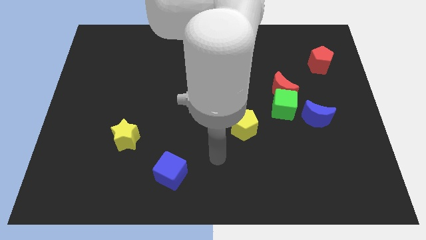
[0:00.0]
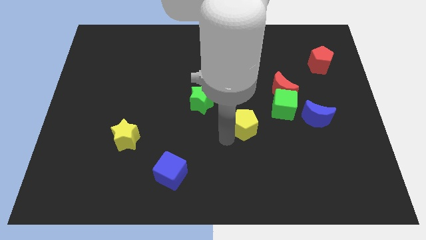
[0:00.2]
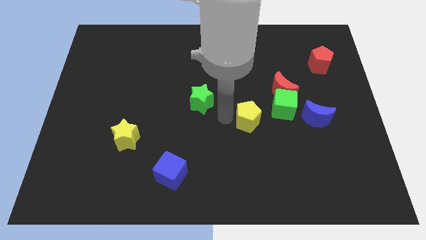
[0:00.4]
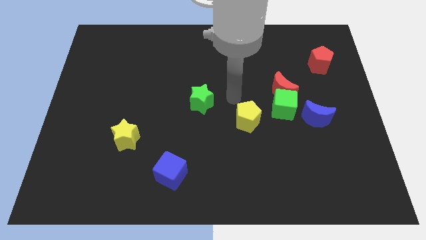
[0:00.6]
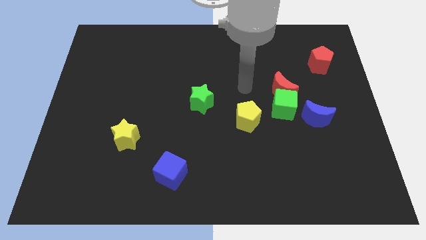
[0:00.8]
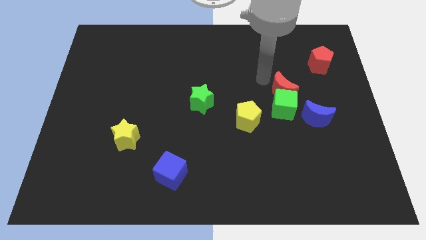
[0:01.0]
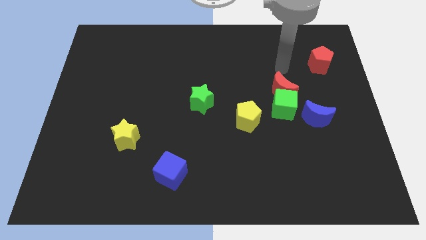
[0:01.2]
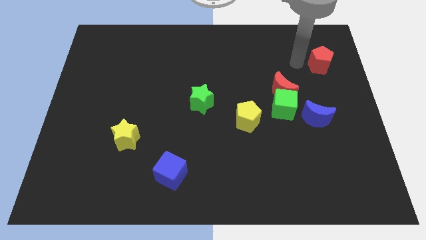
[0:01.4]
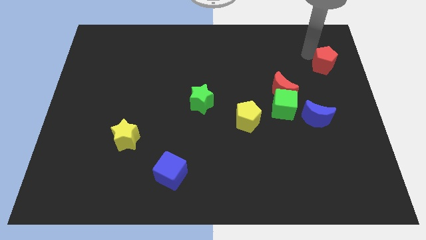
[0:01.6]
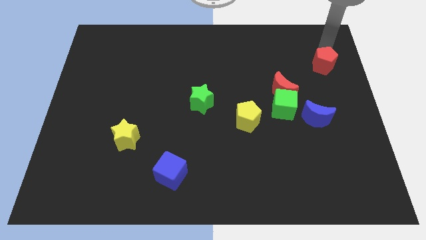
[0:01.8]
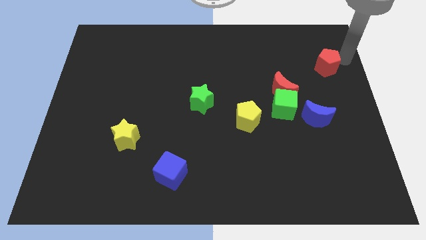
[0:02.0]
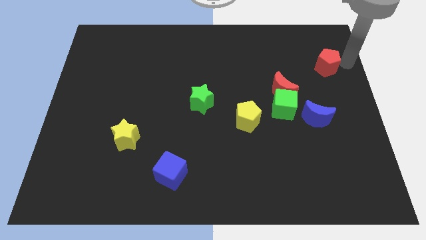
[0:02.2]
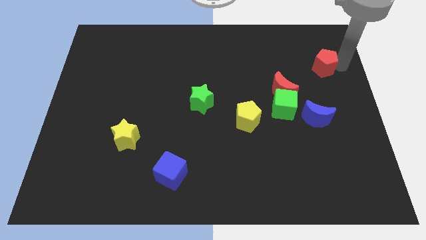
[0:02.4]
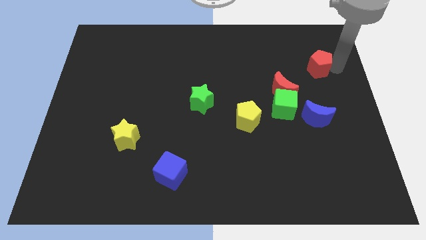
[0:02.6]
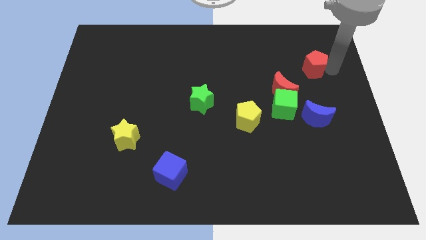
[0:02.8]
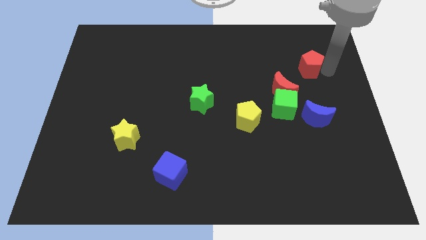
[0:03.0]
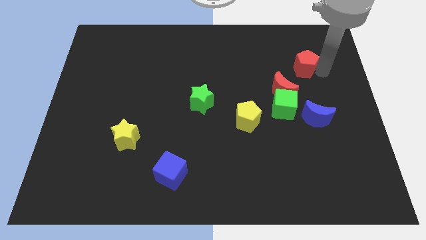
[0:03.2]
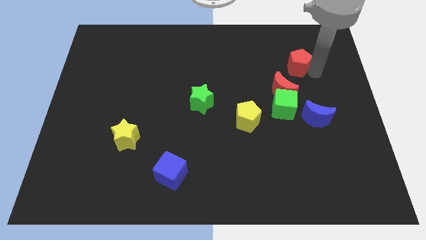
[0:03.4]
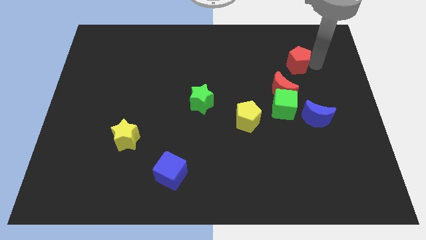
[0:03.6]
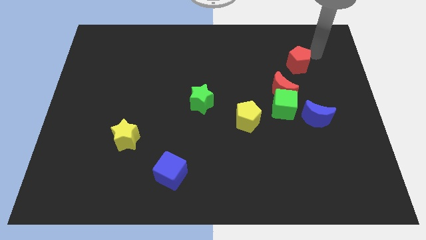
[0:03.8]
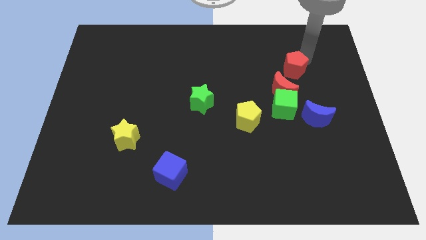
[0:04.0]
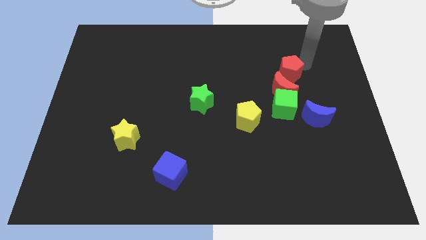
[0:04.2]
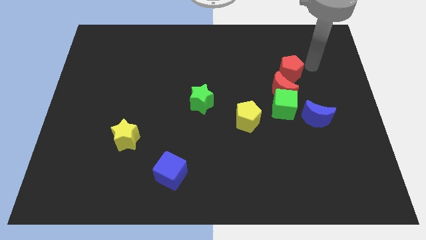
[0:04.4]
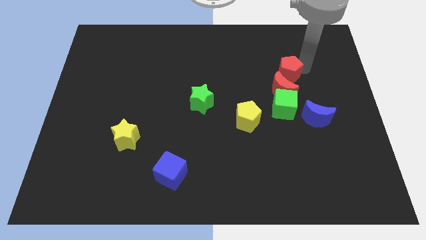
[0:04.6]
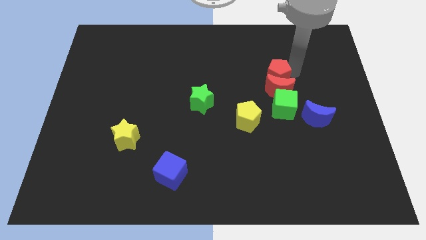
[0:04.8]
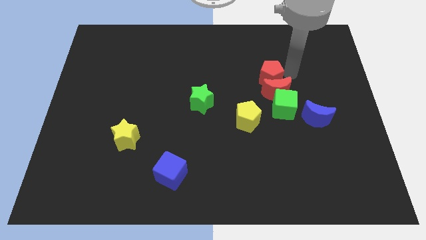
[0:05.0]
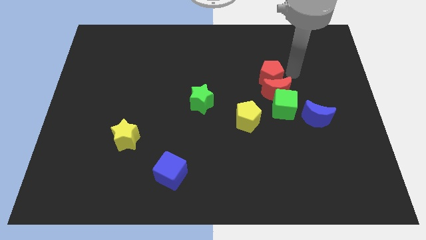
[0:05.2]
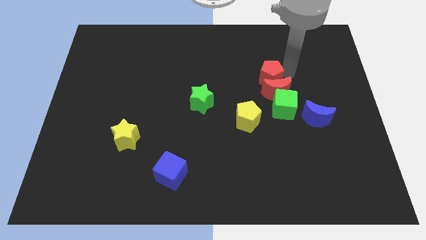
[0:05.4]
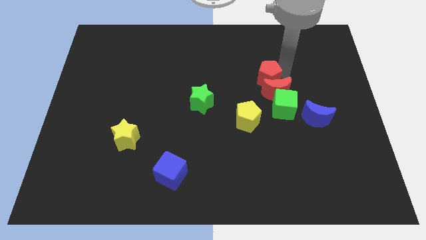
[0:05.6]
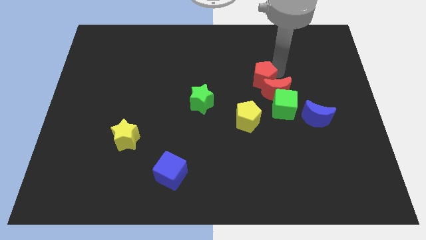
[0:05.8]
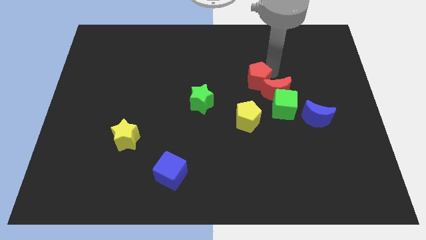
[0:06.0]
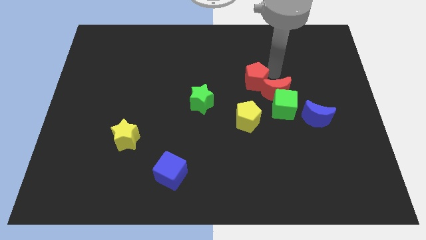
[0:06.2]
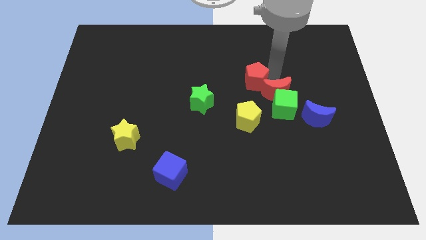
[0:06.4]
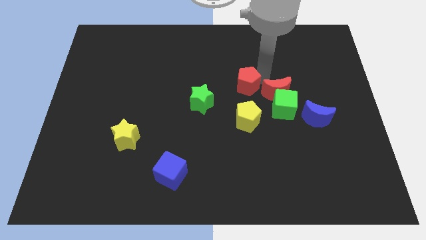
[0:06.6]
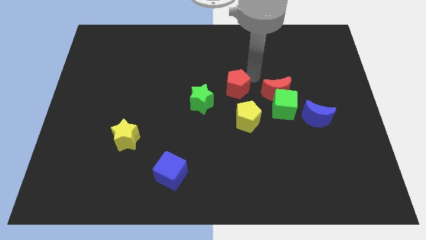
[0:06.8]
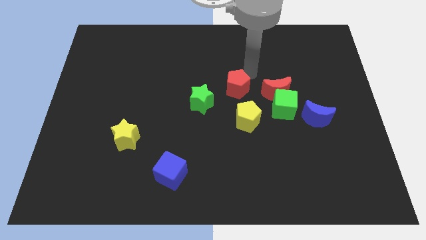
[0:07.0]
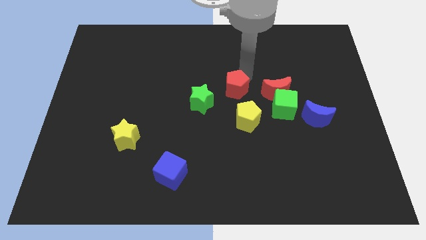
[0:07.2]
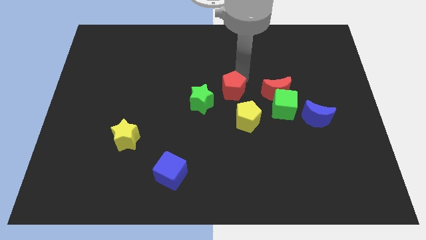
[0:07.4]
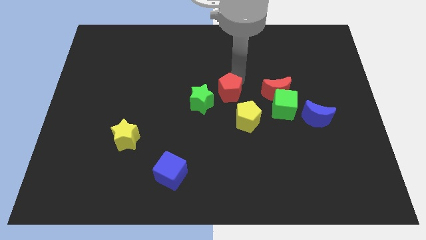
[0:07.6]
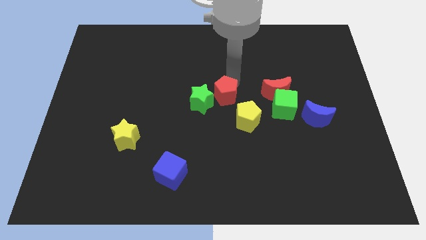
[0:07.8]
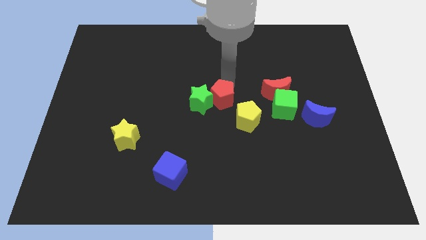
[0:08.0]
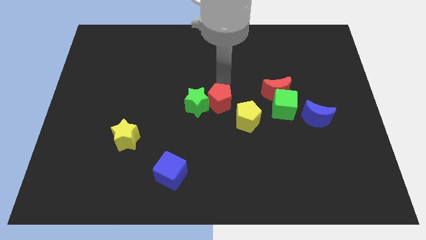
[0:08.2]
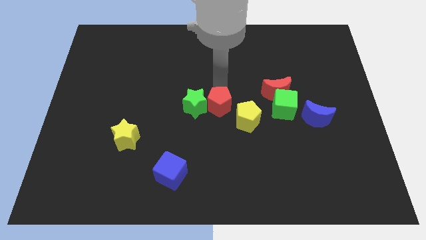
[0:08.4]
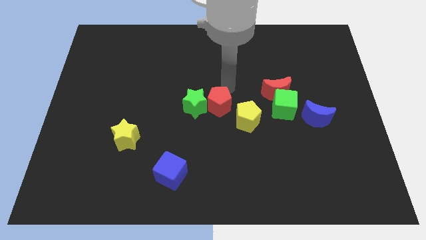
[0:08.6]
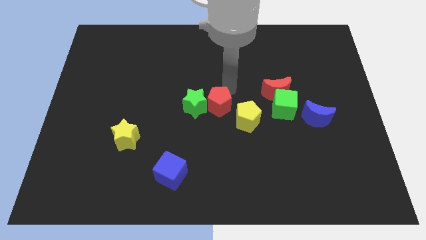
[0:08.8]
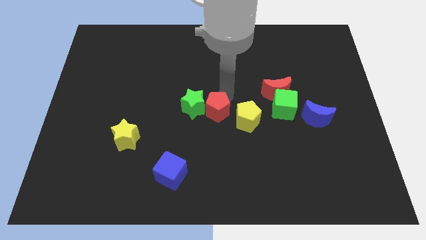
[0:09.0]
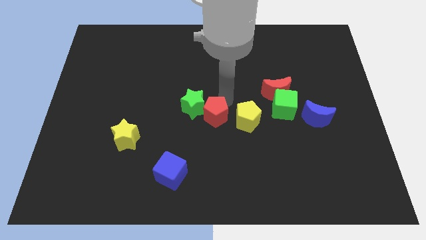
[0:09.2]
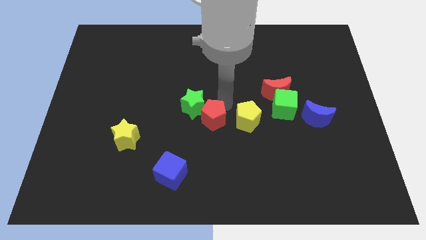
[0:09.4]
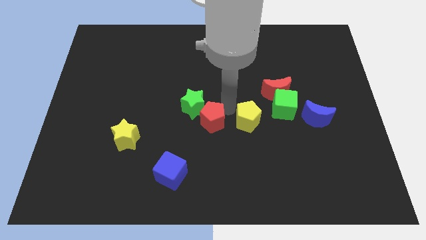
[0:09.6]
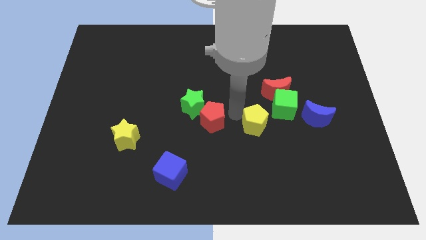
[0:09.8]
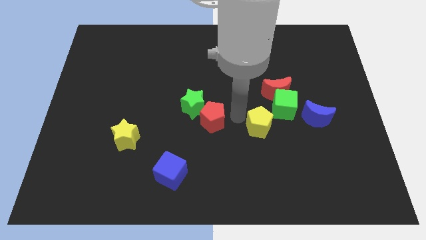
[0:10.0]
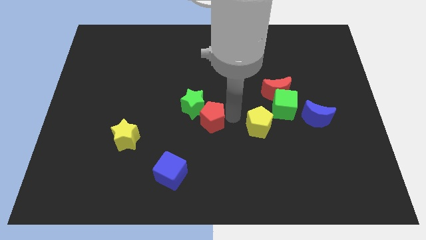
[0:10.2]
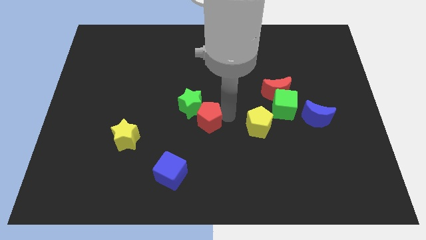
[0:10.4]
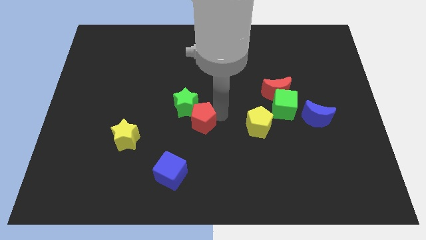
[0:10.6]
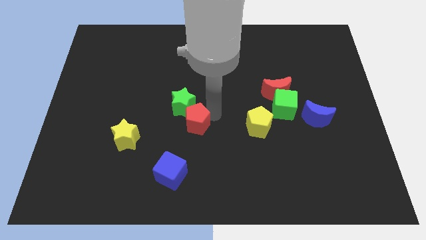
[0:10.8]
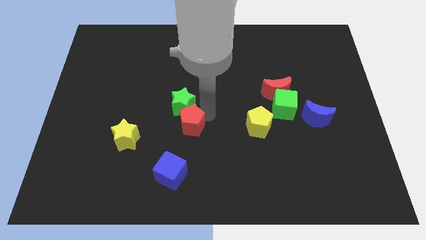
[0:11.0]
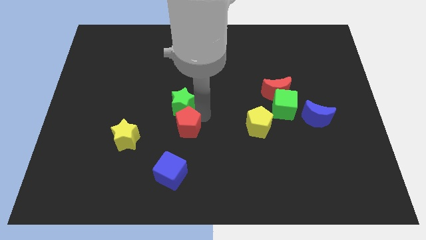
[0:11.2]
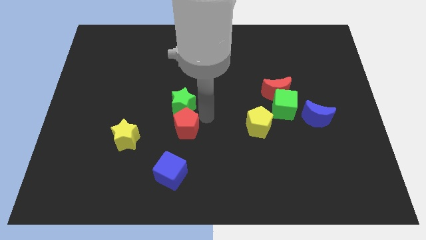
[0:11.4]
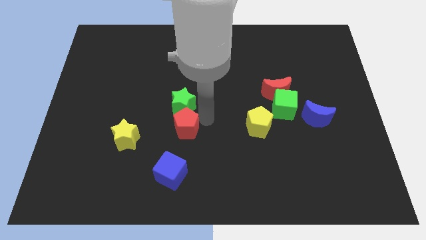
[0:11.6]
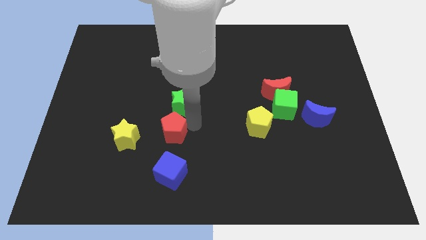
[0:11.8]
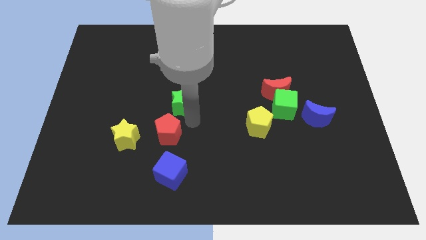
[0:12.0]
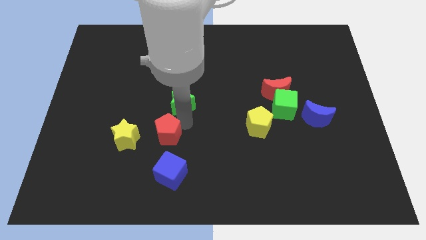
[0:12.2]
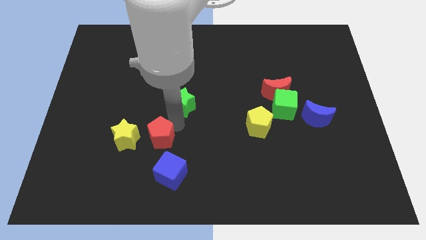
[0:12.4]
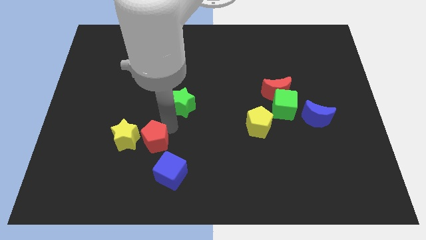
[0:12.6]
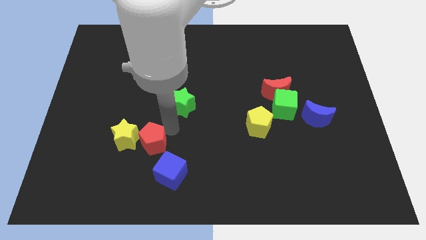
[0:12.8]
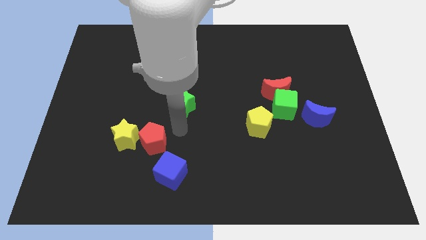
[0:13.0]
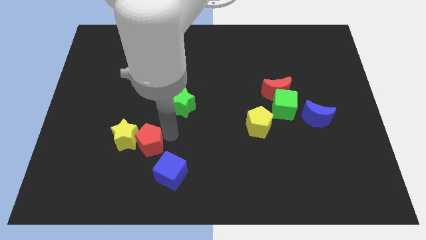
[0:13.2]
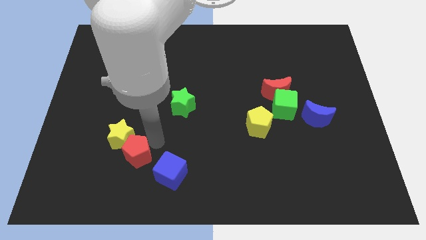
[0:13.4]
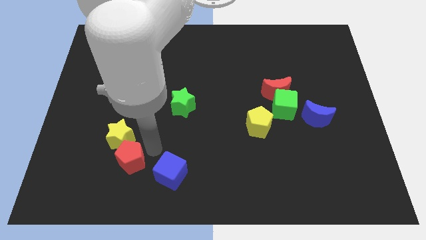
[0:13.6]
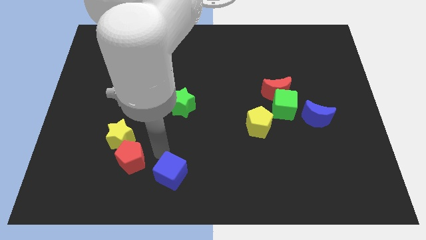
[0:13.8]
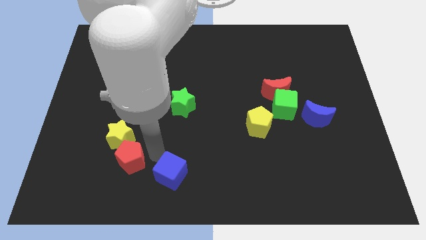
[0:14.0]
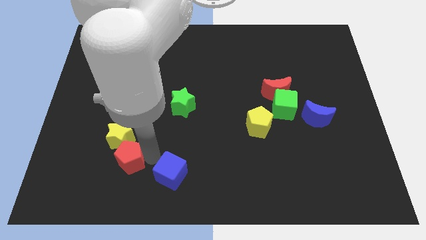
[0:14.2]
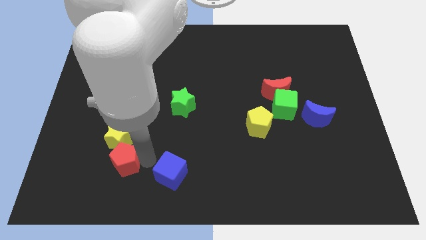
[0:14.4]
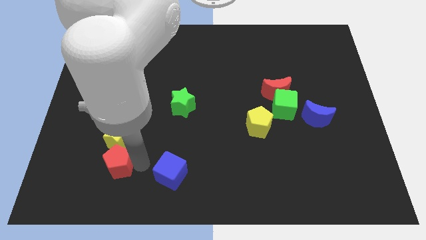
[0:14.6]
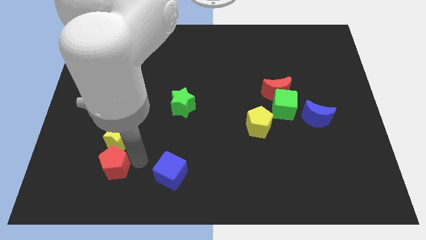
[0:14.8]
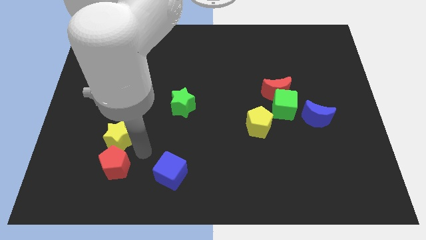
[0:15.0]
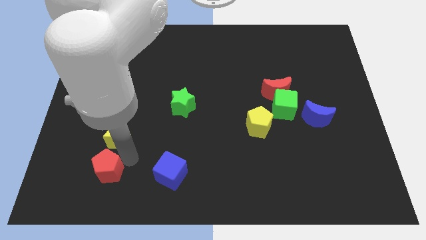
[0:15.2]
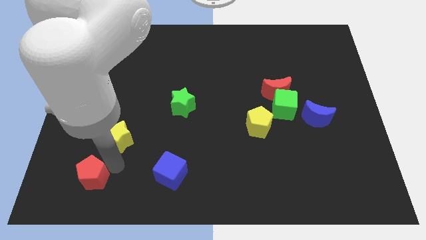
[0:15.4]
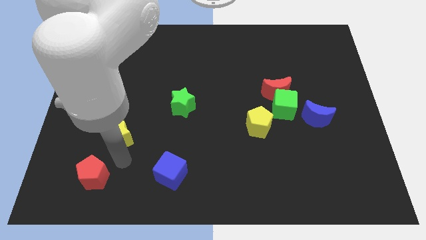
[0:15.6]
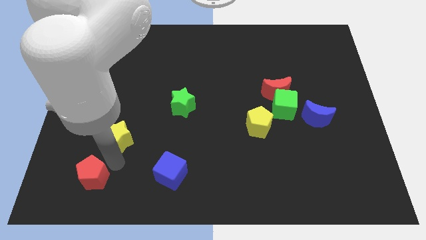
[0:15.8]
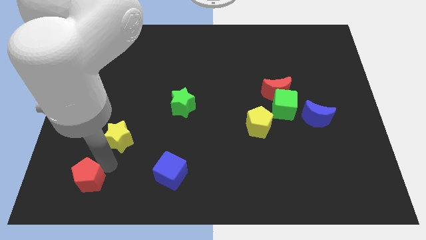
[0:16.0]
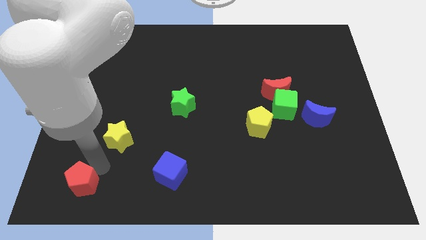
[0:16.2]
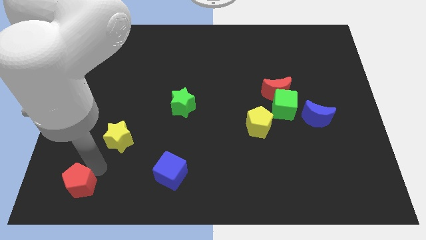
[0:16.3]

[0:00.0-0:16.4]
put the red pentagon to the bottom left corner
